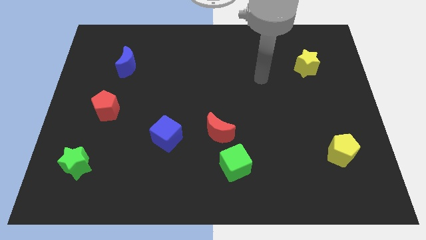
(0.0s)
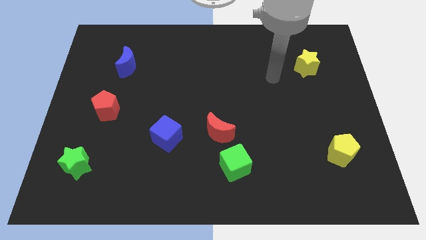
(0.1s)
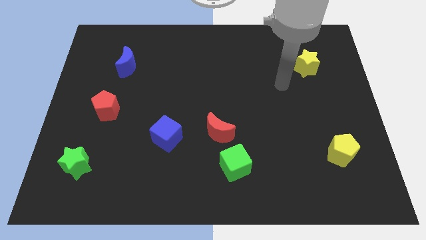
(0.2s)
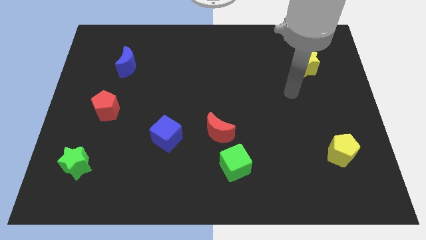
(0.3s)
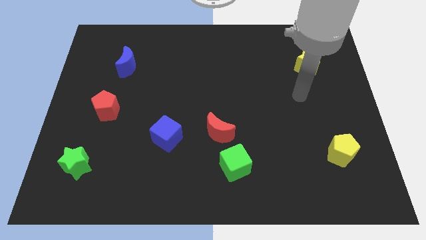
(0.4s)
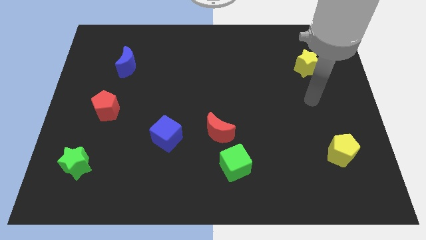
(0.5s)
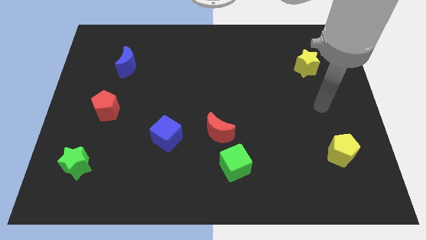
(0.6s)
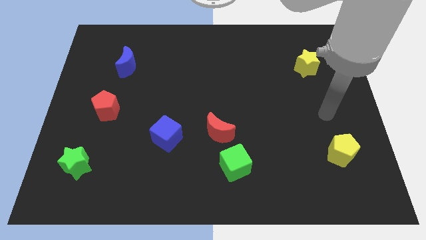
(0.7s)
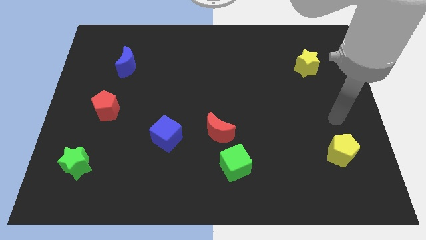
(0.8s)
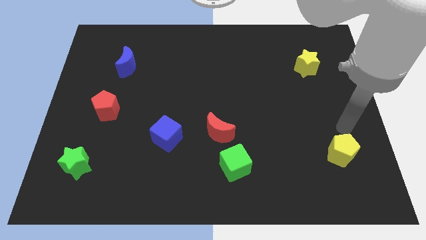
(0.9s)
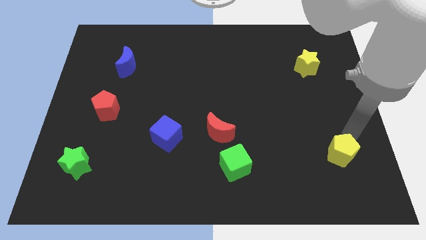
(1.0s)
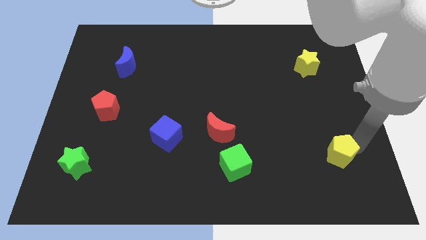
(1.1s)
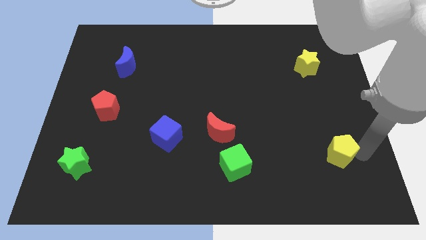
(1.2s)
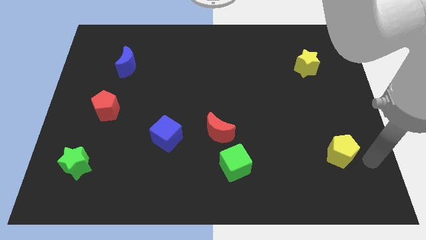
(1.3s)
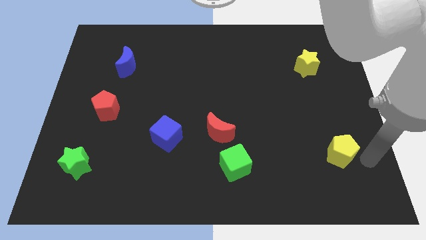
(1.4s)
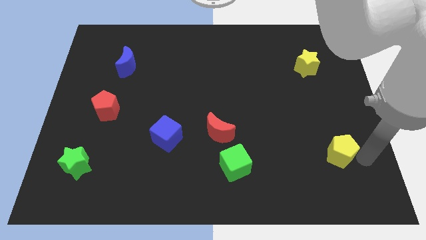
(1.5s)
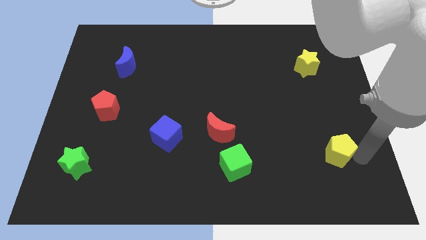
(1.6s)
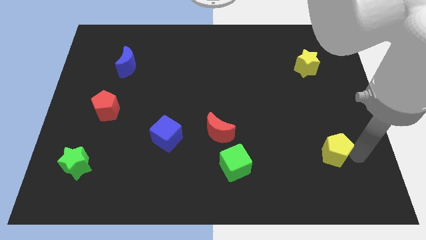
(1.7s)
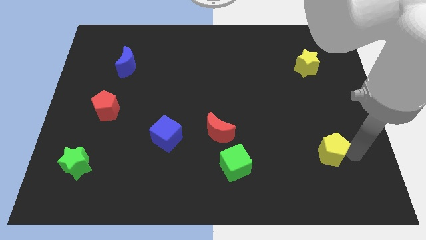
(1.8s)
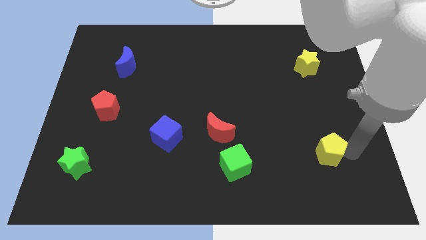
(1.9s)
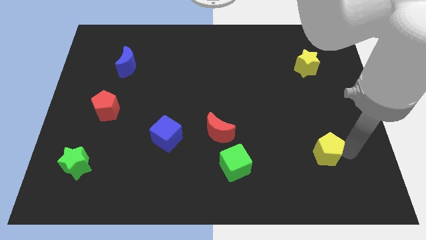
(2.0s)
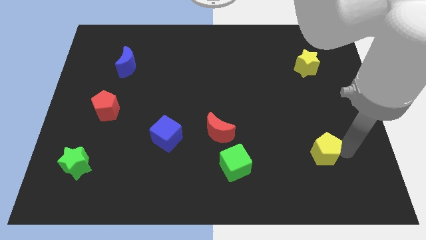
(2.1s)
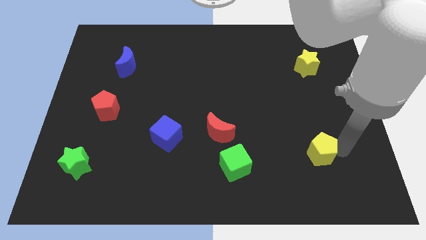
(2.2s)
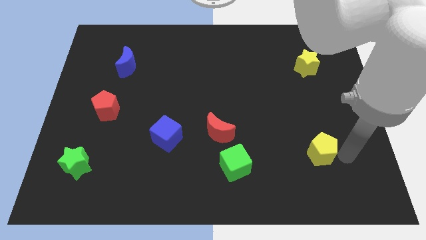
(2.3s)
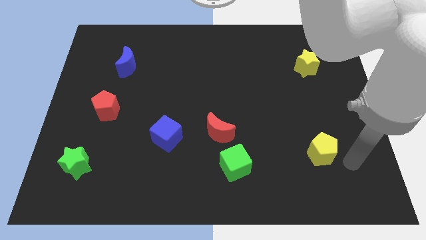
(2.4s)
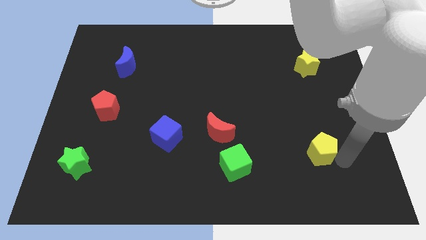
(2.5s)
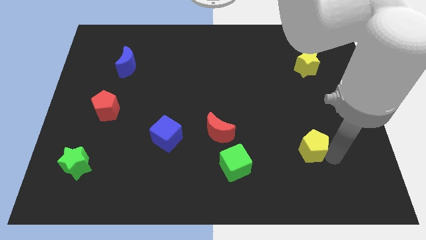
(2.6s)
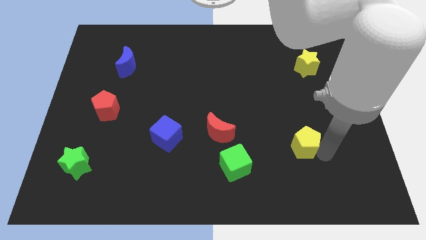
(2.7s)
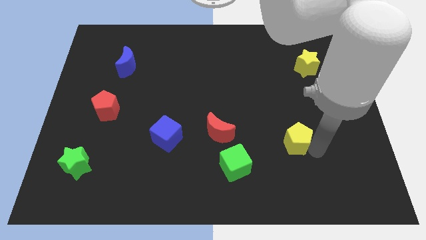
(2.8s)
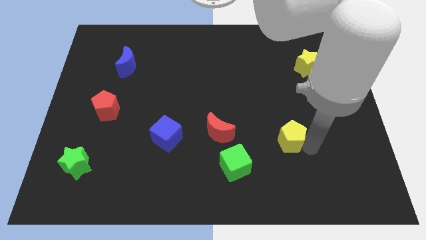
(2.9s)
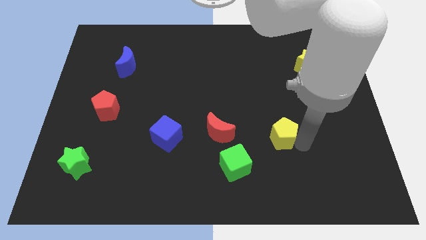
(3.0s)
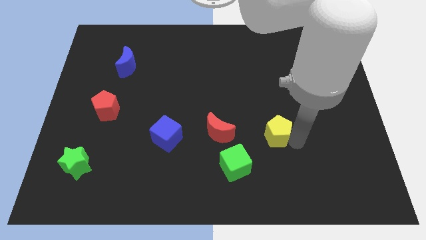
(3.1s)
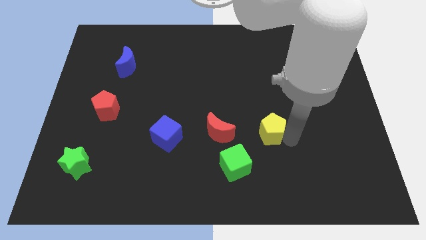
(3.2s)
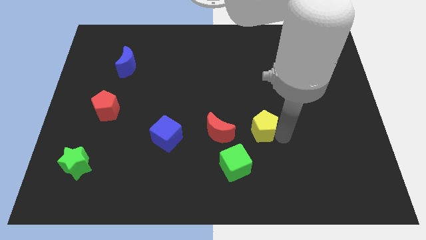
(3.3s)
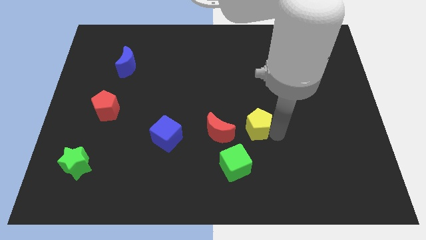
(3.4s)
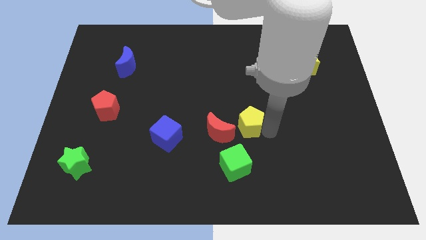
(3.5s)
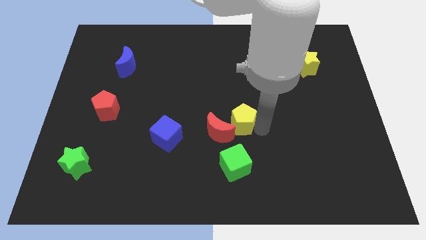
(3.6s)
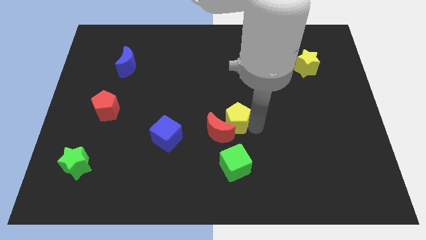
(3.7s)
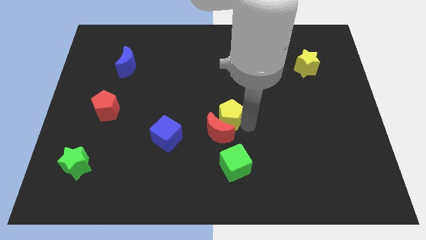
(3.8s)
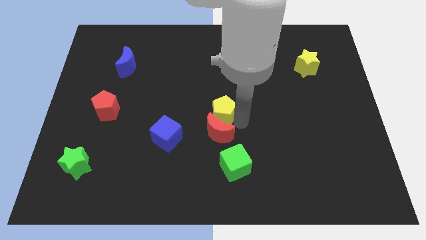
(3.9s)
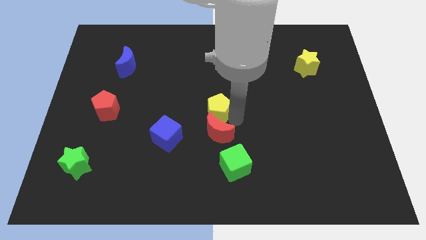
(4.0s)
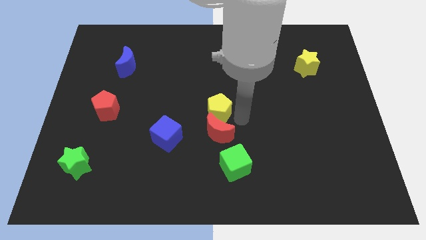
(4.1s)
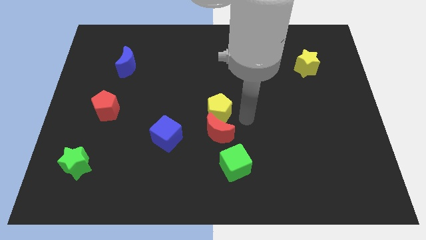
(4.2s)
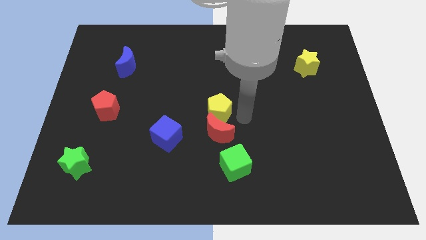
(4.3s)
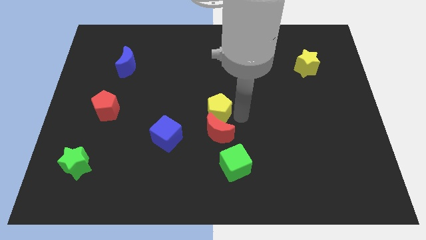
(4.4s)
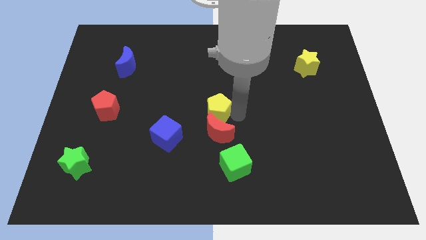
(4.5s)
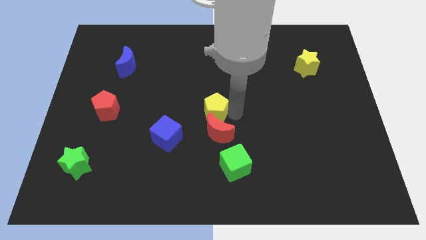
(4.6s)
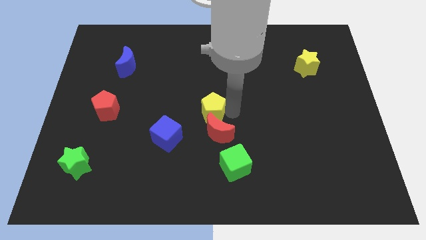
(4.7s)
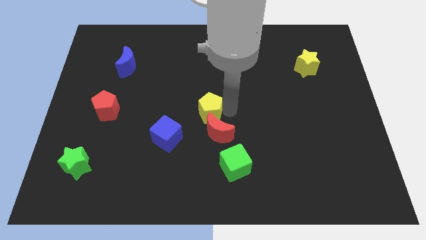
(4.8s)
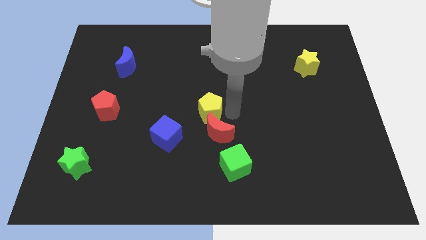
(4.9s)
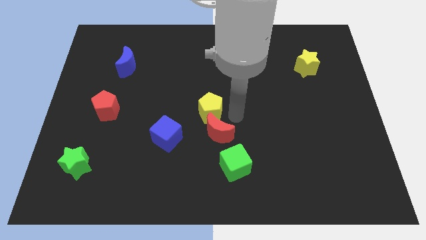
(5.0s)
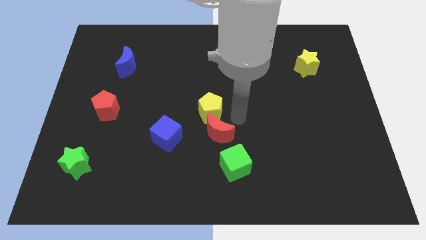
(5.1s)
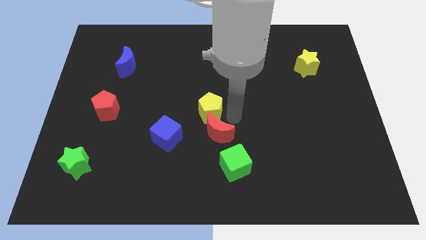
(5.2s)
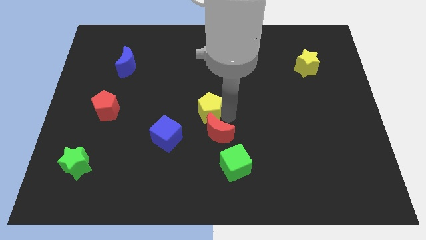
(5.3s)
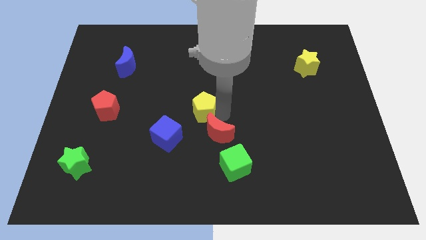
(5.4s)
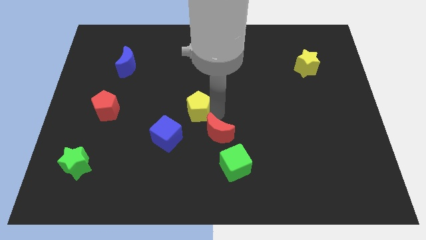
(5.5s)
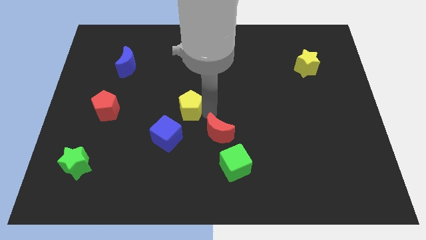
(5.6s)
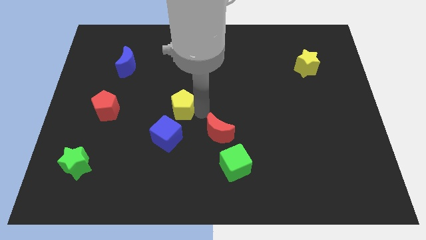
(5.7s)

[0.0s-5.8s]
slide the yellow pentagon to the top side of the blue cube
